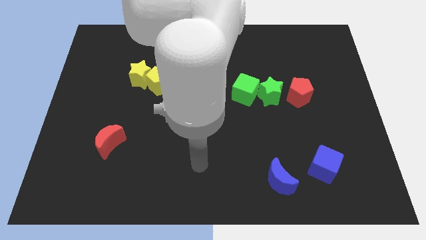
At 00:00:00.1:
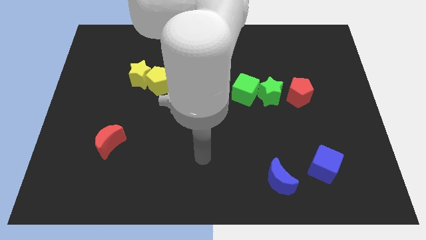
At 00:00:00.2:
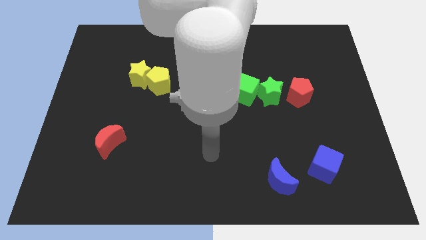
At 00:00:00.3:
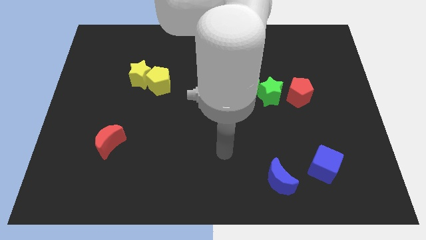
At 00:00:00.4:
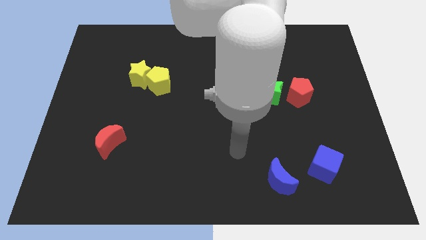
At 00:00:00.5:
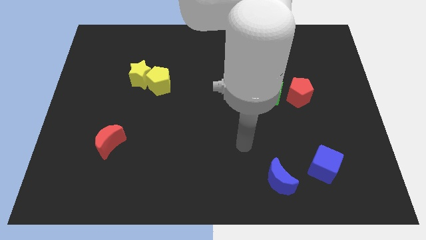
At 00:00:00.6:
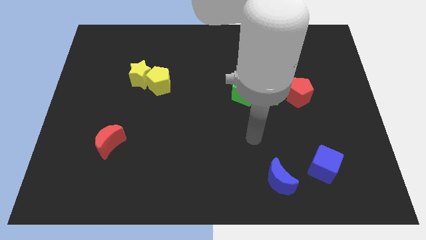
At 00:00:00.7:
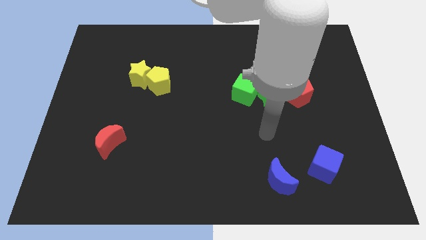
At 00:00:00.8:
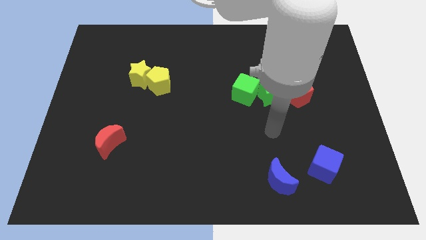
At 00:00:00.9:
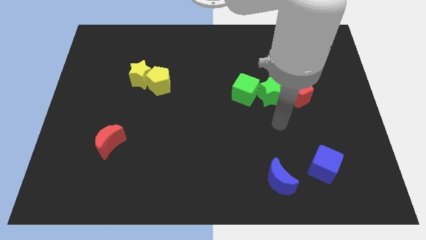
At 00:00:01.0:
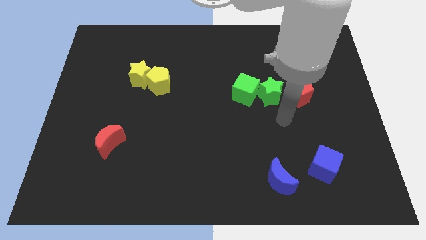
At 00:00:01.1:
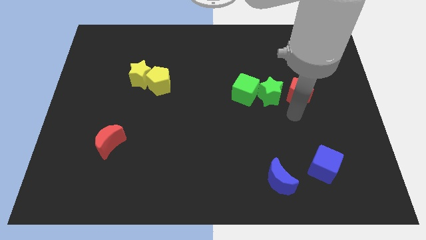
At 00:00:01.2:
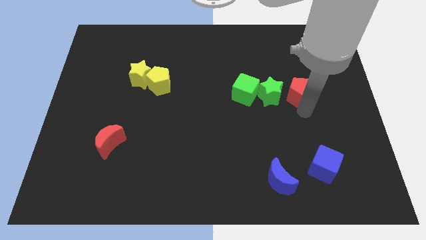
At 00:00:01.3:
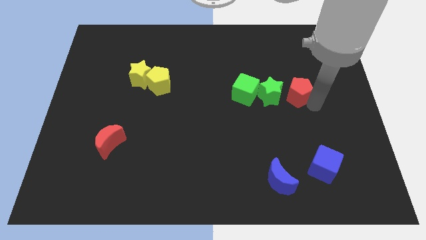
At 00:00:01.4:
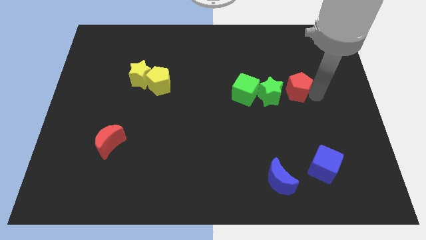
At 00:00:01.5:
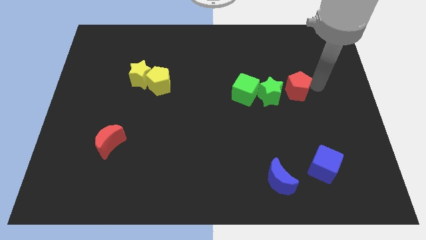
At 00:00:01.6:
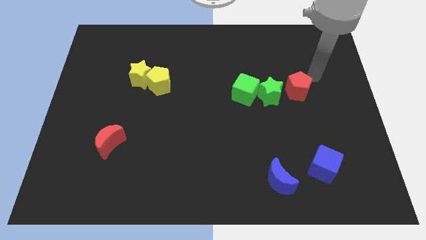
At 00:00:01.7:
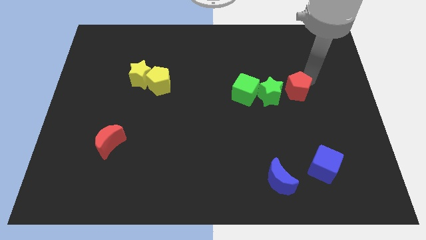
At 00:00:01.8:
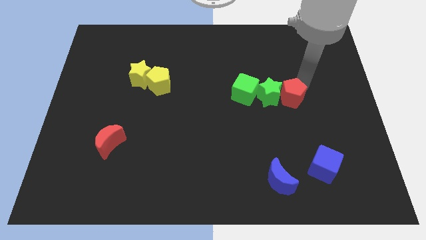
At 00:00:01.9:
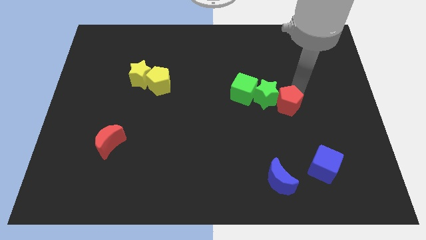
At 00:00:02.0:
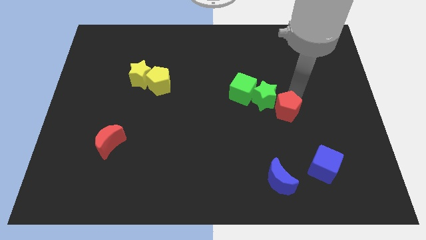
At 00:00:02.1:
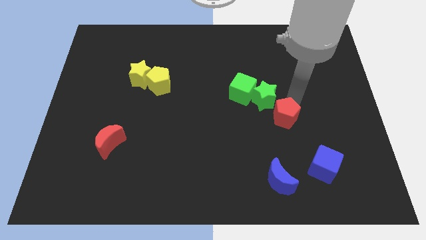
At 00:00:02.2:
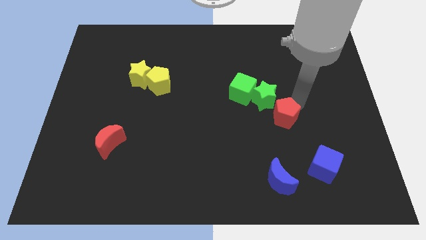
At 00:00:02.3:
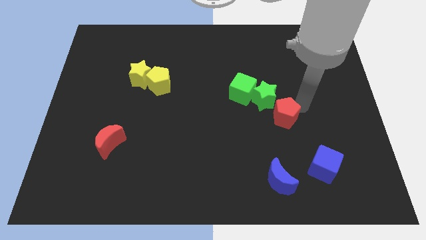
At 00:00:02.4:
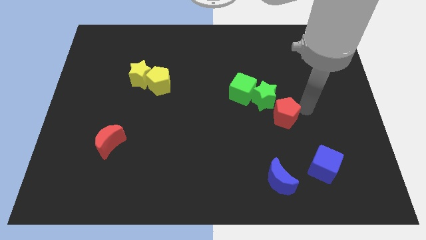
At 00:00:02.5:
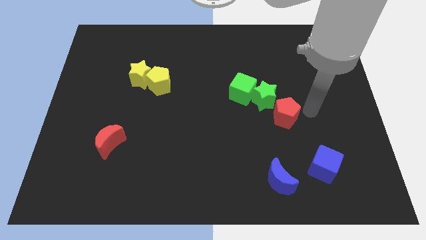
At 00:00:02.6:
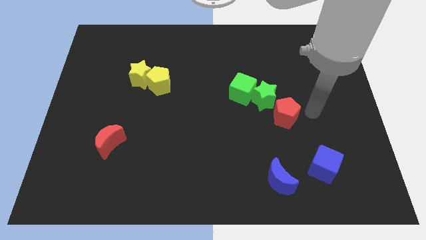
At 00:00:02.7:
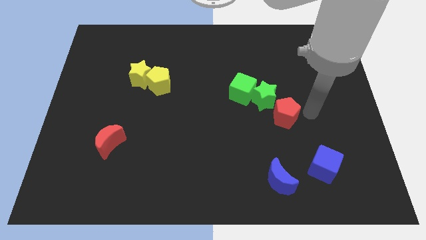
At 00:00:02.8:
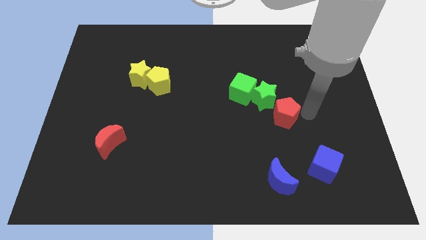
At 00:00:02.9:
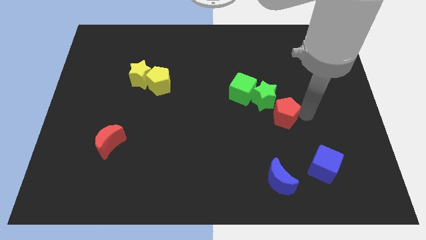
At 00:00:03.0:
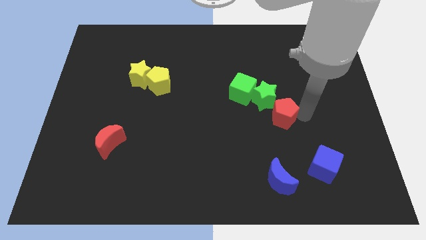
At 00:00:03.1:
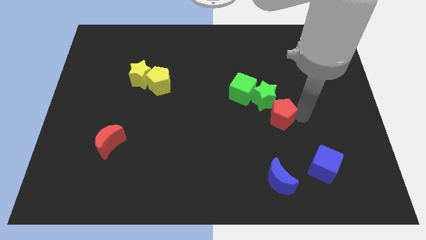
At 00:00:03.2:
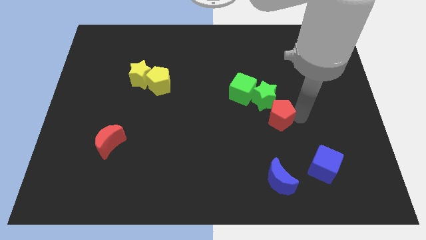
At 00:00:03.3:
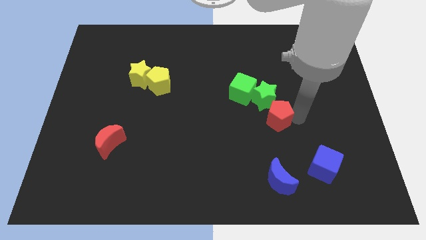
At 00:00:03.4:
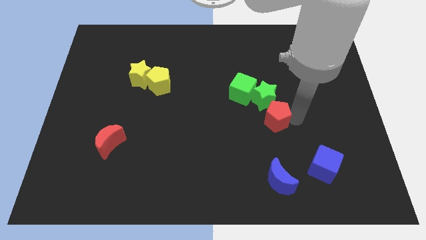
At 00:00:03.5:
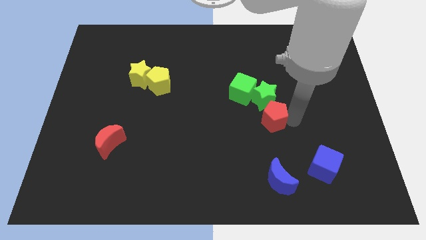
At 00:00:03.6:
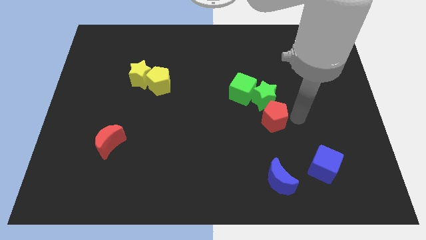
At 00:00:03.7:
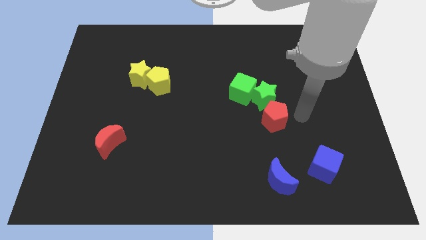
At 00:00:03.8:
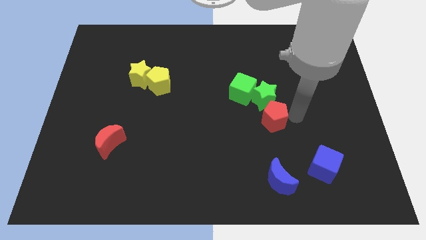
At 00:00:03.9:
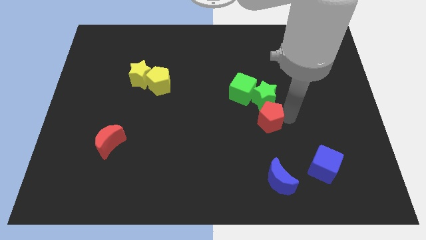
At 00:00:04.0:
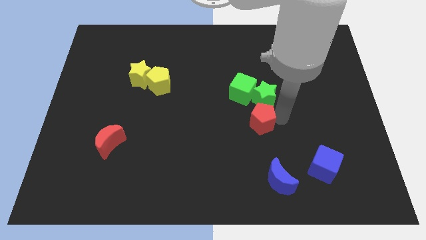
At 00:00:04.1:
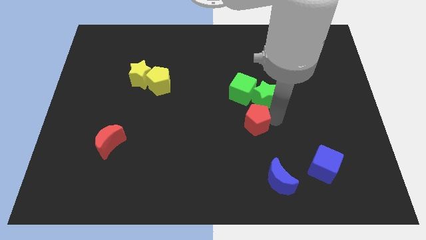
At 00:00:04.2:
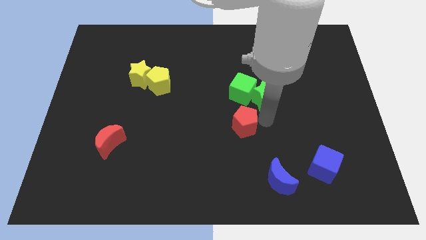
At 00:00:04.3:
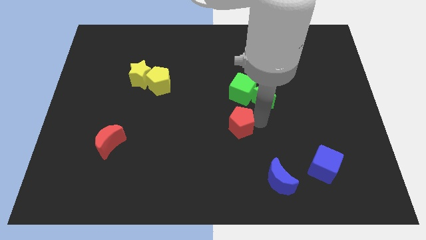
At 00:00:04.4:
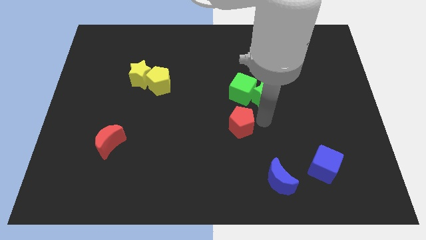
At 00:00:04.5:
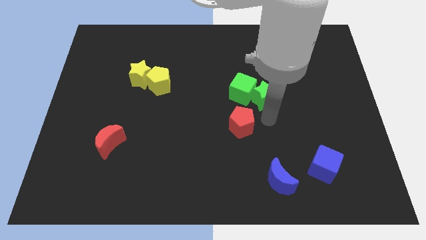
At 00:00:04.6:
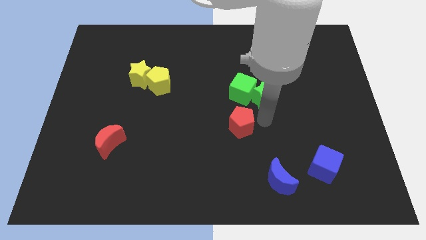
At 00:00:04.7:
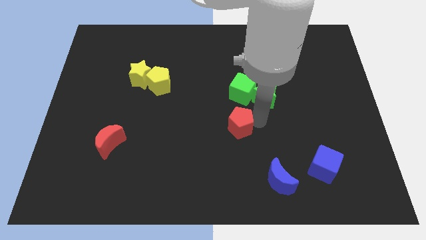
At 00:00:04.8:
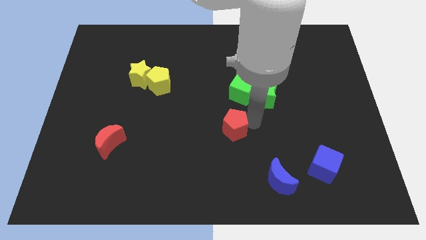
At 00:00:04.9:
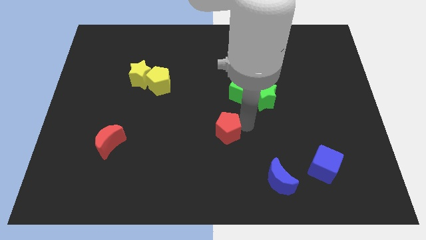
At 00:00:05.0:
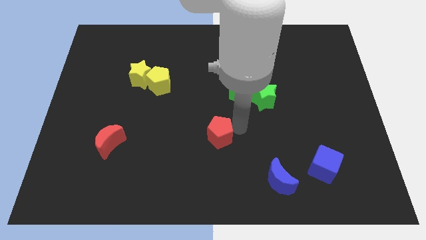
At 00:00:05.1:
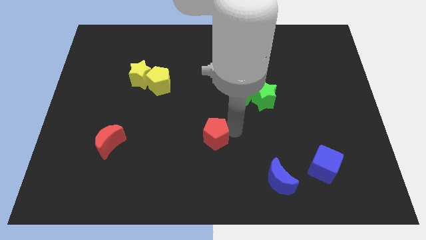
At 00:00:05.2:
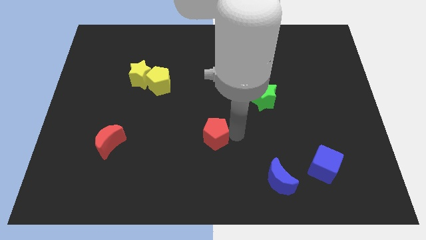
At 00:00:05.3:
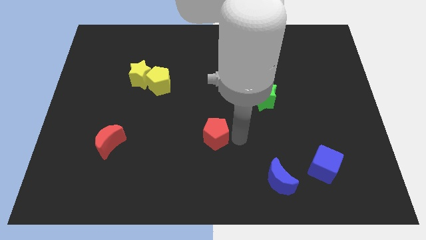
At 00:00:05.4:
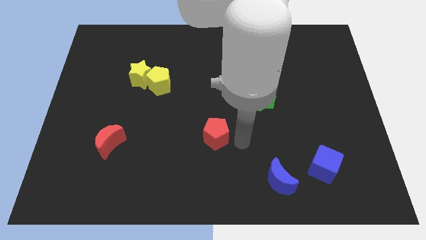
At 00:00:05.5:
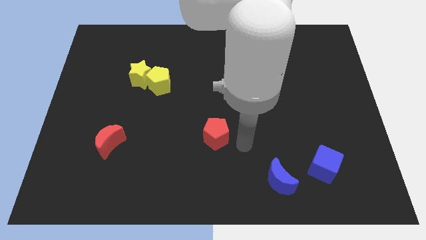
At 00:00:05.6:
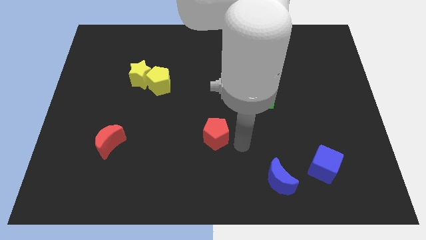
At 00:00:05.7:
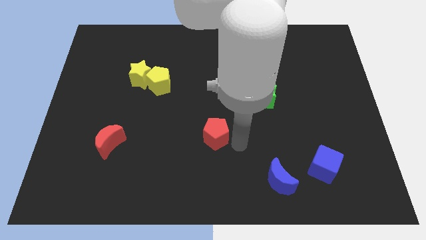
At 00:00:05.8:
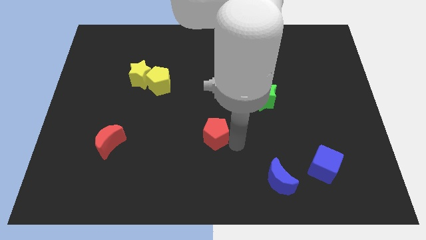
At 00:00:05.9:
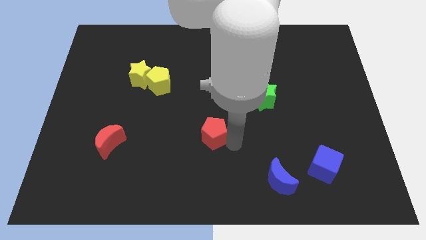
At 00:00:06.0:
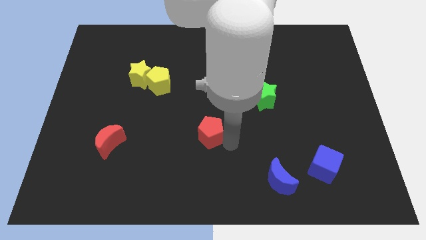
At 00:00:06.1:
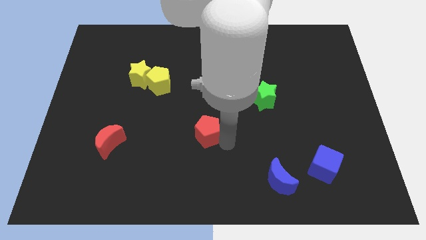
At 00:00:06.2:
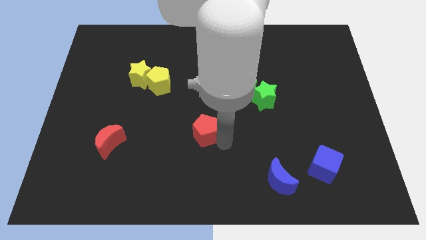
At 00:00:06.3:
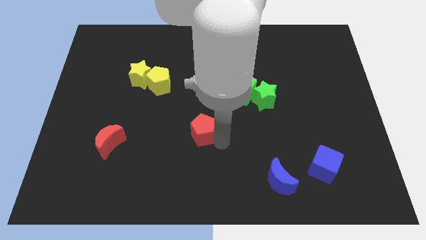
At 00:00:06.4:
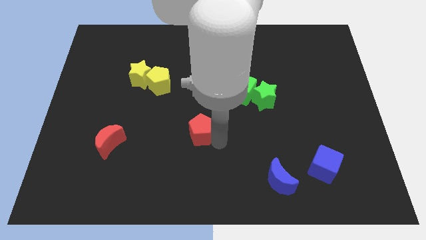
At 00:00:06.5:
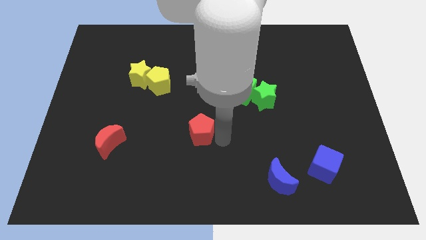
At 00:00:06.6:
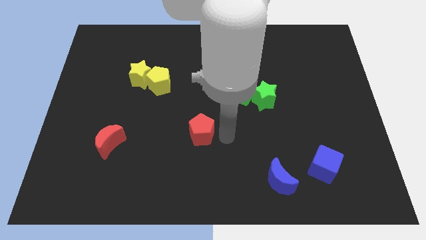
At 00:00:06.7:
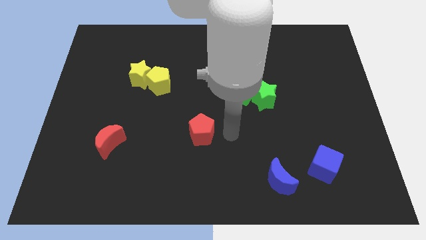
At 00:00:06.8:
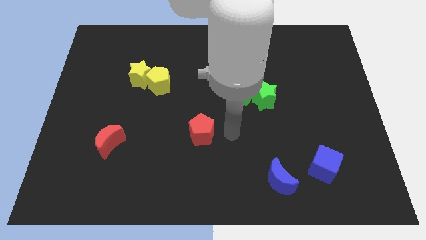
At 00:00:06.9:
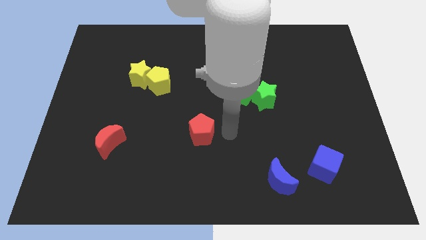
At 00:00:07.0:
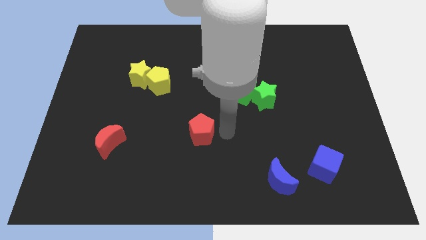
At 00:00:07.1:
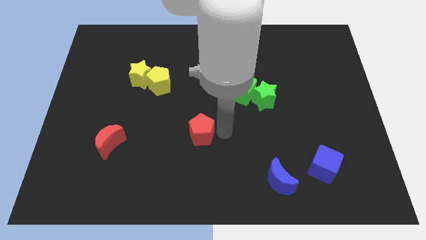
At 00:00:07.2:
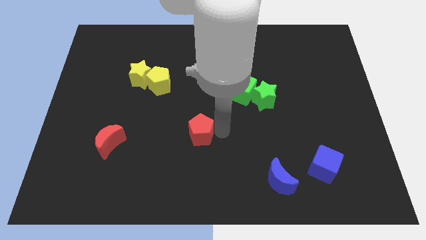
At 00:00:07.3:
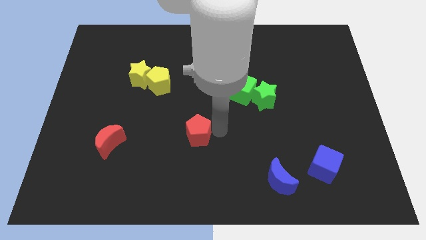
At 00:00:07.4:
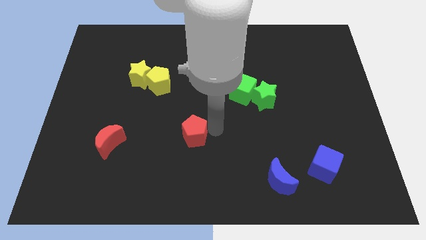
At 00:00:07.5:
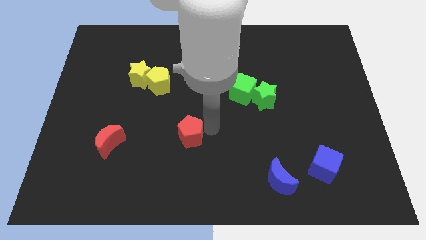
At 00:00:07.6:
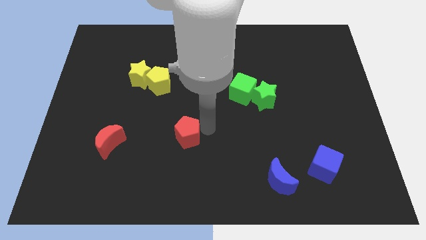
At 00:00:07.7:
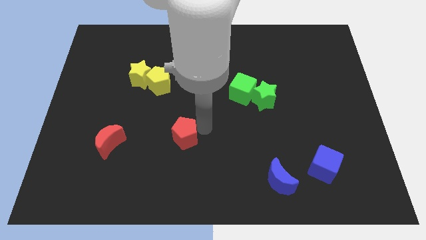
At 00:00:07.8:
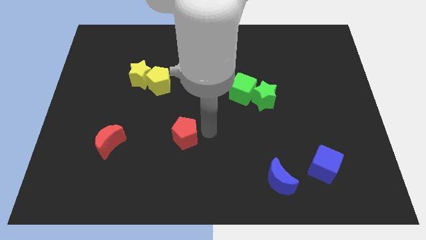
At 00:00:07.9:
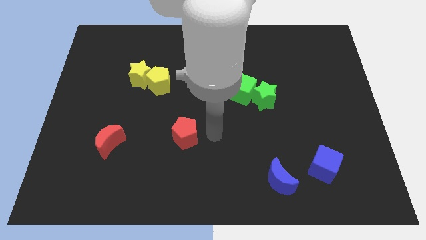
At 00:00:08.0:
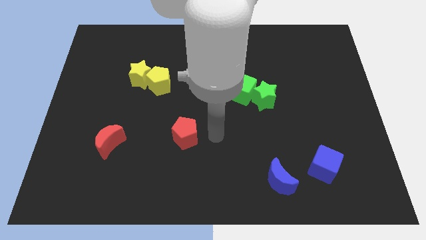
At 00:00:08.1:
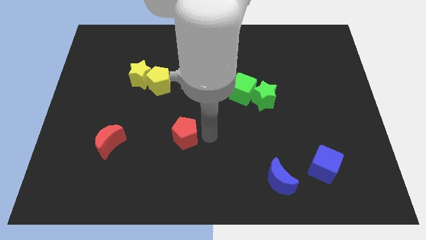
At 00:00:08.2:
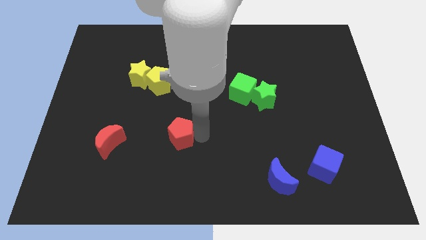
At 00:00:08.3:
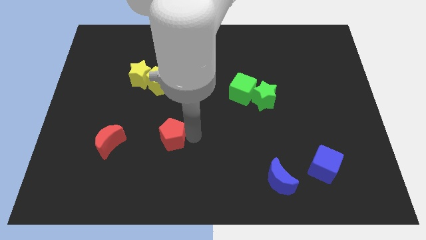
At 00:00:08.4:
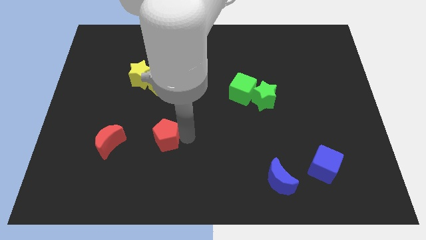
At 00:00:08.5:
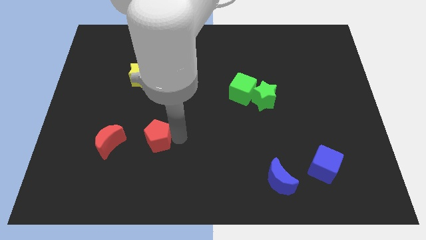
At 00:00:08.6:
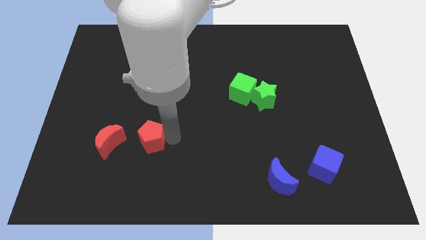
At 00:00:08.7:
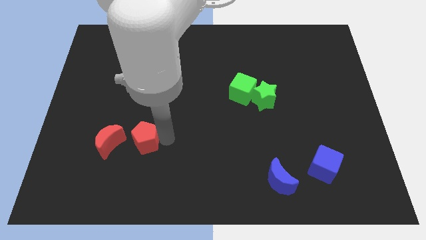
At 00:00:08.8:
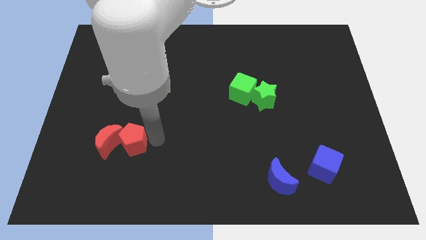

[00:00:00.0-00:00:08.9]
push the red pentagon next to the red moon
